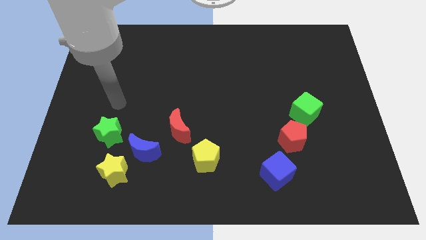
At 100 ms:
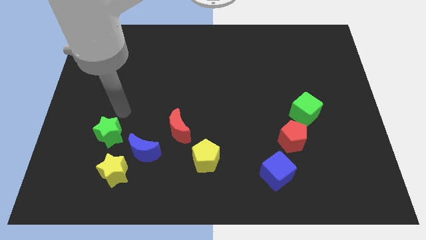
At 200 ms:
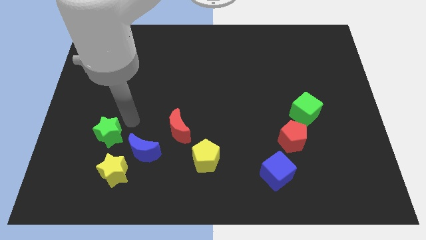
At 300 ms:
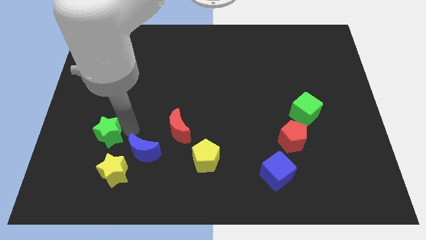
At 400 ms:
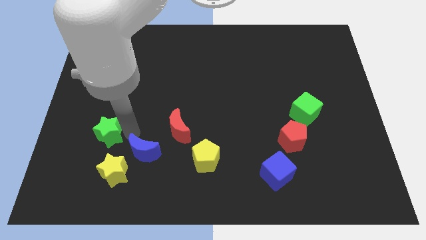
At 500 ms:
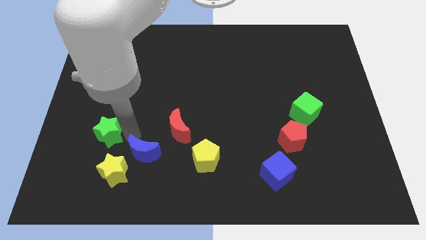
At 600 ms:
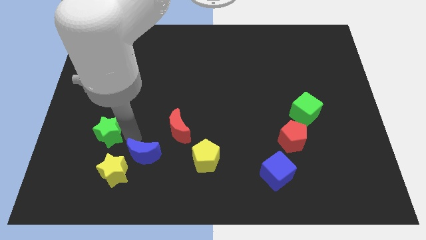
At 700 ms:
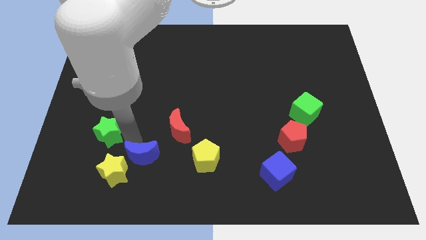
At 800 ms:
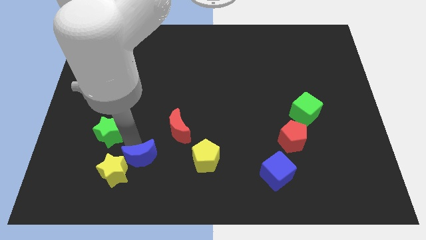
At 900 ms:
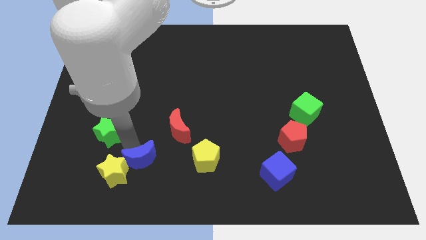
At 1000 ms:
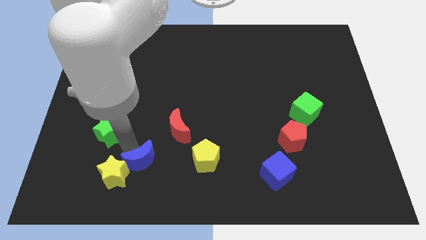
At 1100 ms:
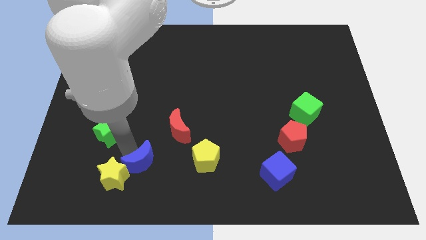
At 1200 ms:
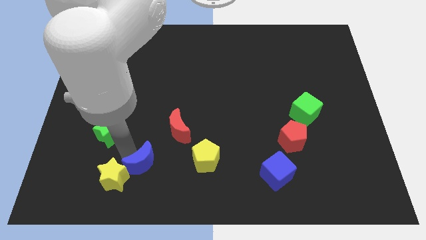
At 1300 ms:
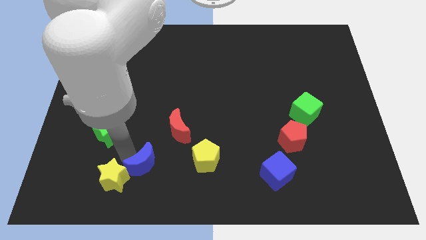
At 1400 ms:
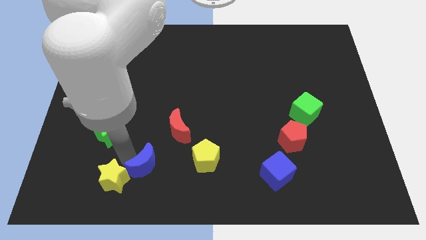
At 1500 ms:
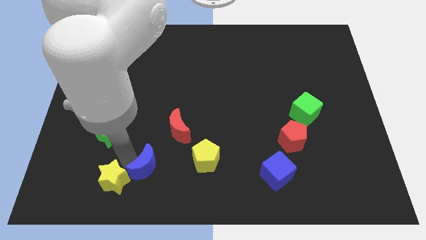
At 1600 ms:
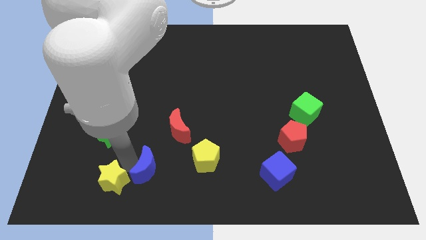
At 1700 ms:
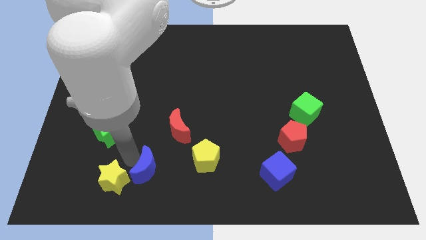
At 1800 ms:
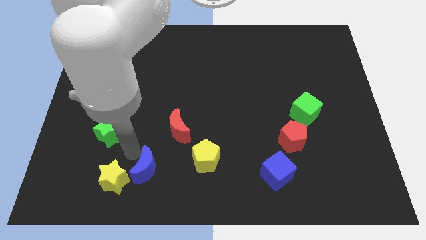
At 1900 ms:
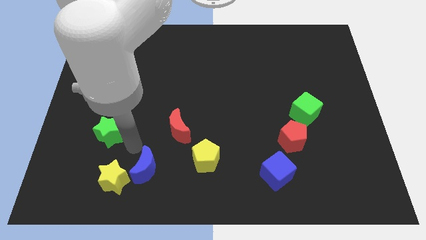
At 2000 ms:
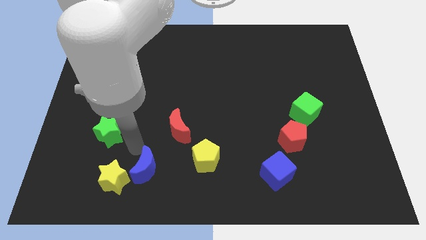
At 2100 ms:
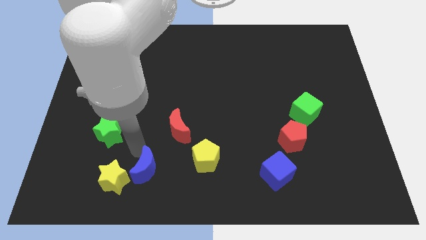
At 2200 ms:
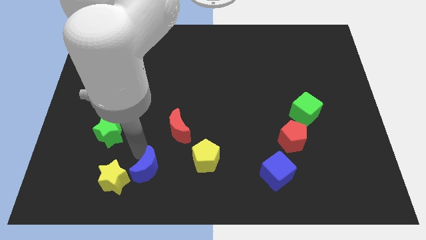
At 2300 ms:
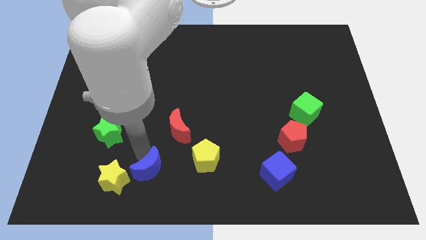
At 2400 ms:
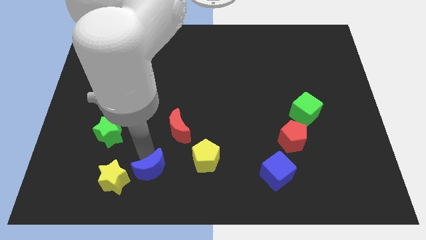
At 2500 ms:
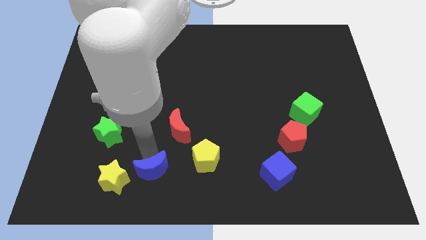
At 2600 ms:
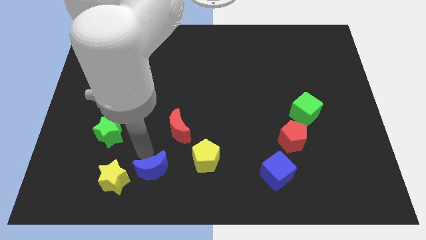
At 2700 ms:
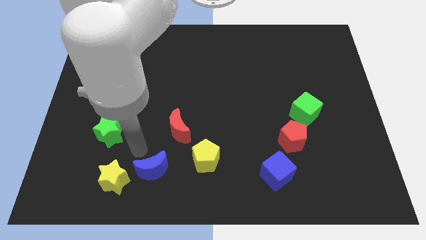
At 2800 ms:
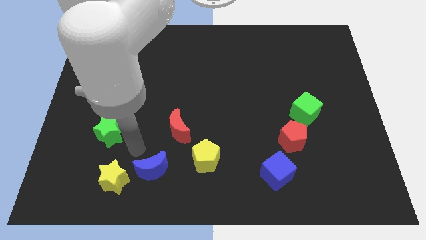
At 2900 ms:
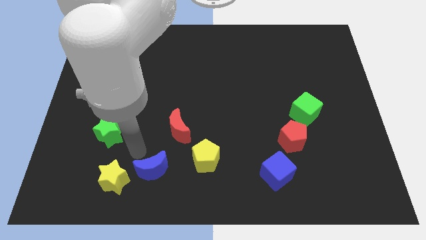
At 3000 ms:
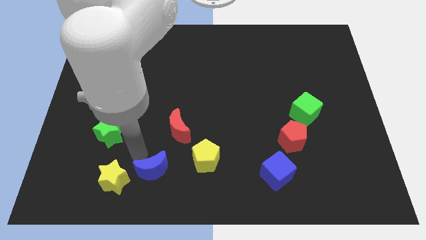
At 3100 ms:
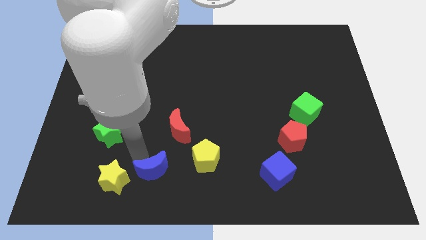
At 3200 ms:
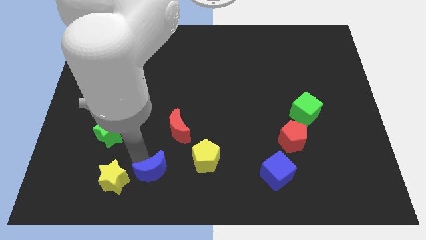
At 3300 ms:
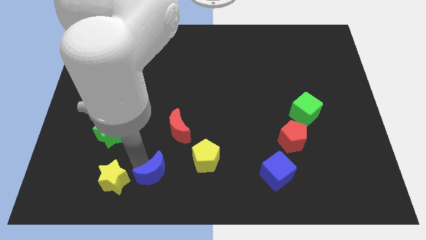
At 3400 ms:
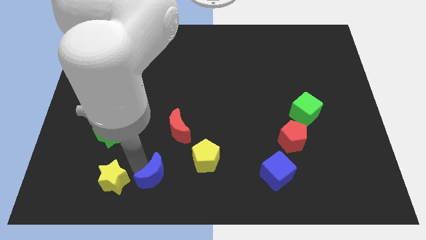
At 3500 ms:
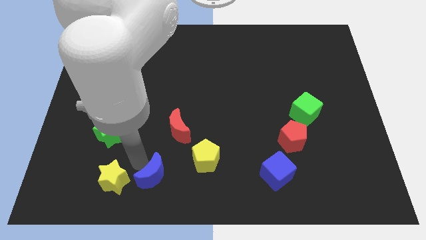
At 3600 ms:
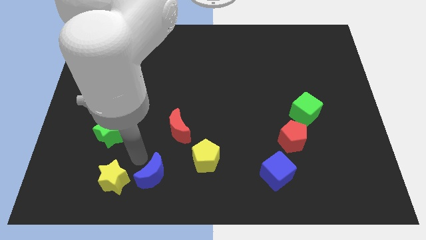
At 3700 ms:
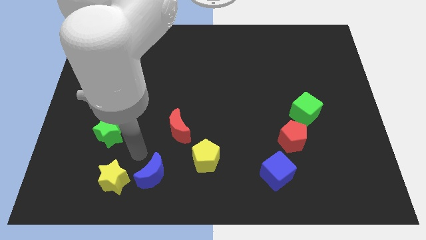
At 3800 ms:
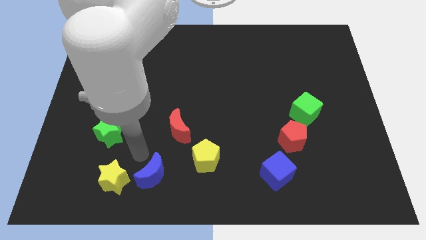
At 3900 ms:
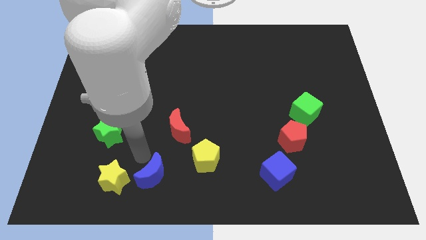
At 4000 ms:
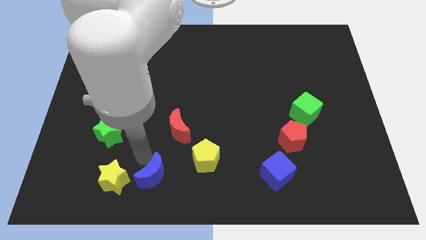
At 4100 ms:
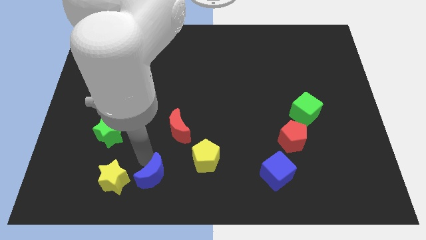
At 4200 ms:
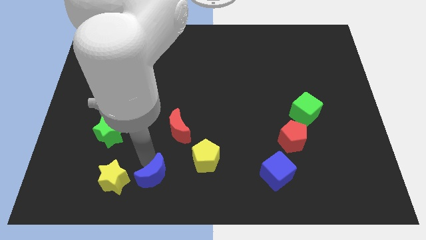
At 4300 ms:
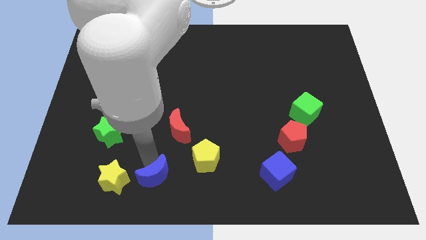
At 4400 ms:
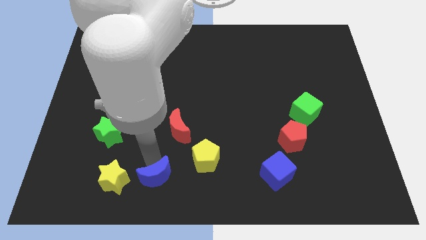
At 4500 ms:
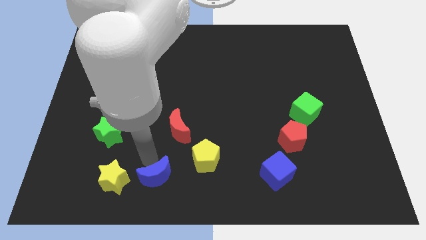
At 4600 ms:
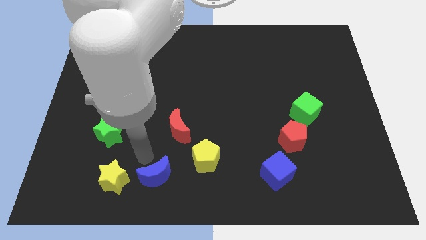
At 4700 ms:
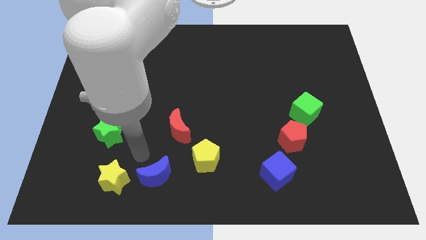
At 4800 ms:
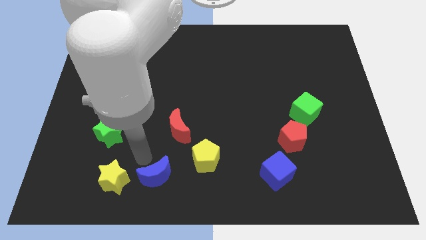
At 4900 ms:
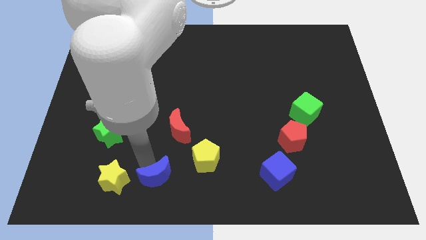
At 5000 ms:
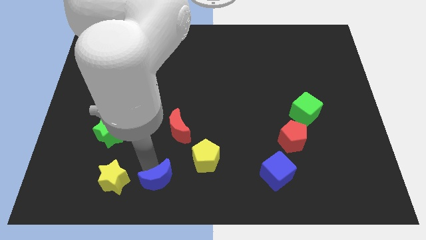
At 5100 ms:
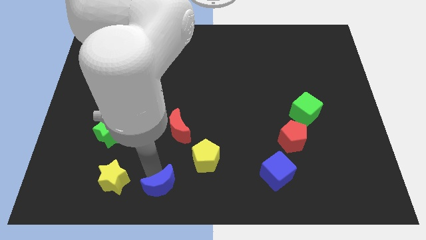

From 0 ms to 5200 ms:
move the blue moon away from the yellow star, green star, and red moon

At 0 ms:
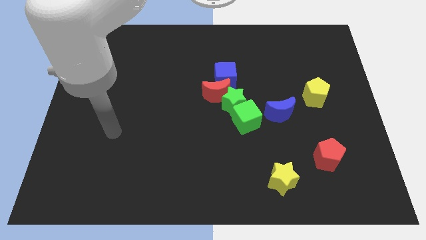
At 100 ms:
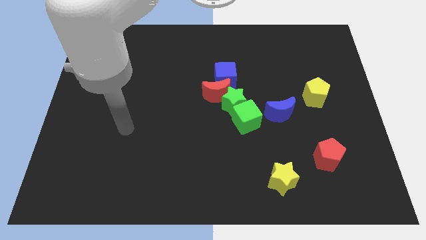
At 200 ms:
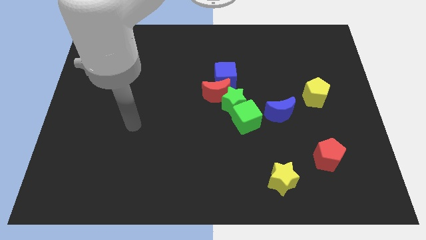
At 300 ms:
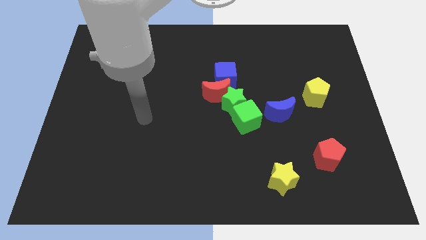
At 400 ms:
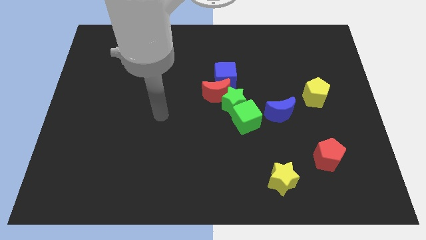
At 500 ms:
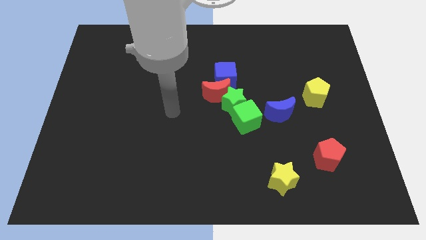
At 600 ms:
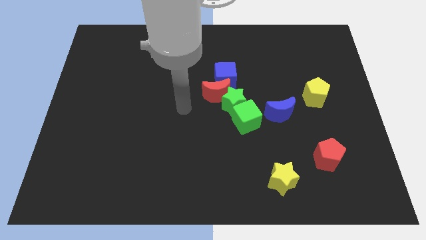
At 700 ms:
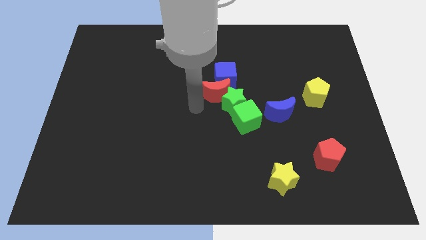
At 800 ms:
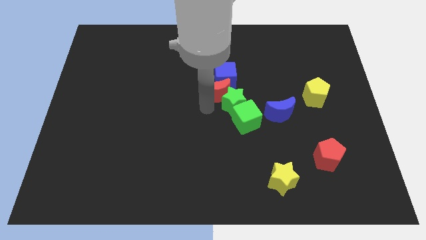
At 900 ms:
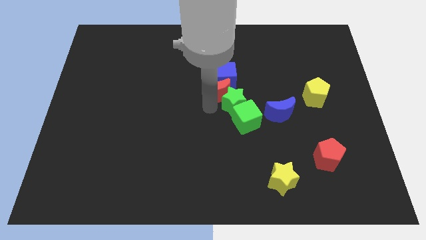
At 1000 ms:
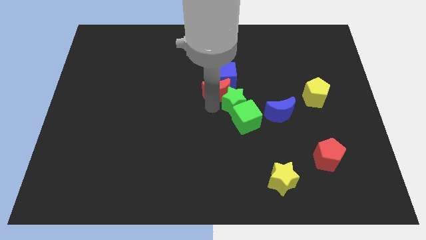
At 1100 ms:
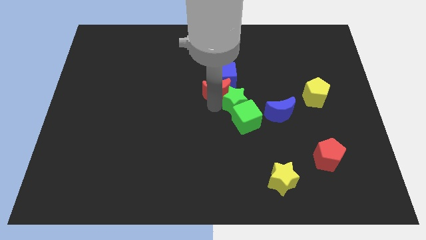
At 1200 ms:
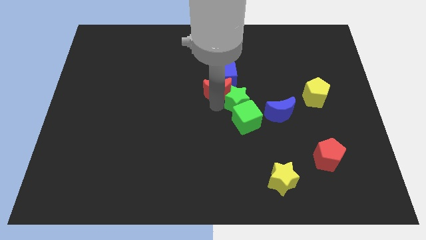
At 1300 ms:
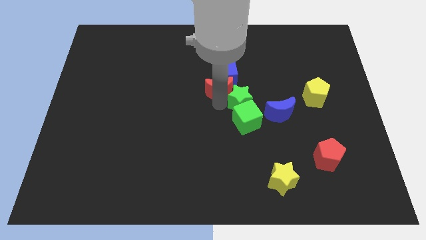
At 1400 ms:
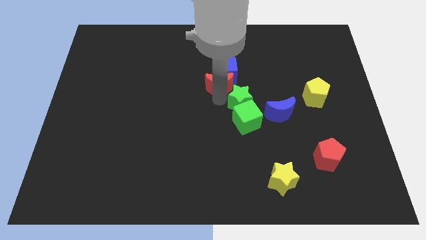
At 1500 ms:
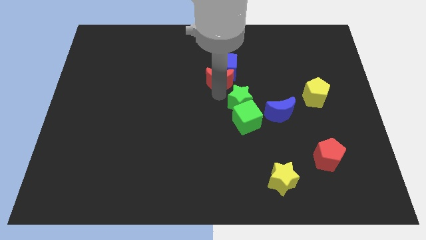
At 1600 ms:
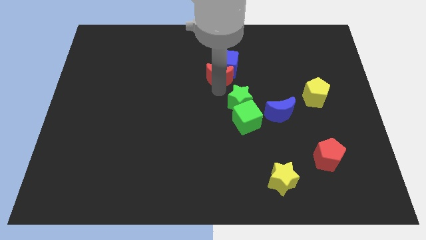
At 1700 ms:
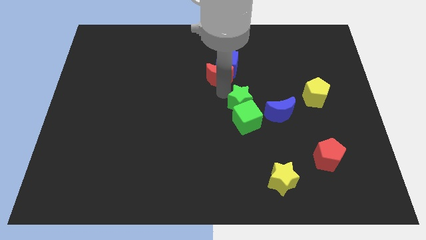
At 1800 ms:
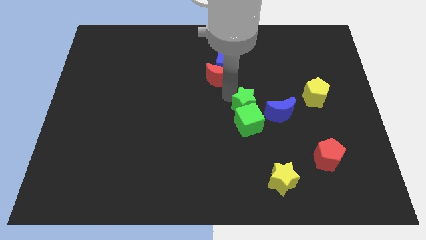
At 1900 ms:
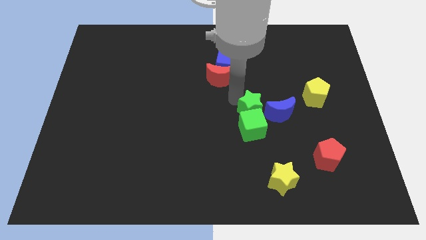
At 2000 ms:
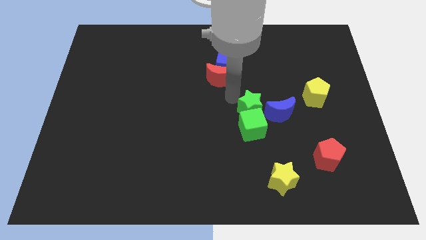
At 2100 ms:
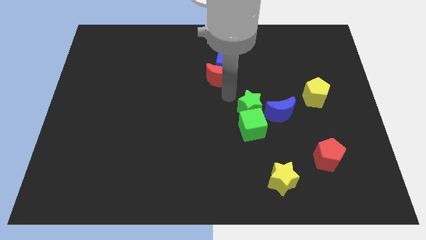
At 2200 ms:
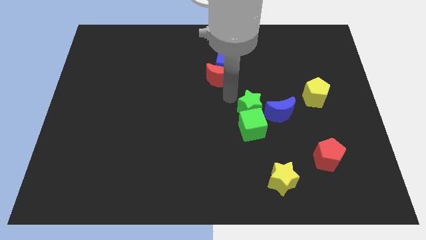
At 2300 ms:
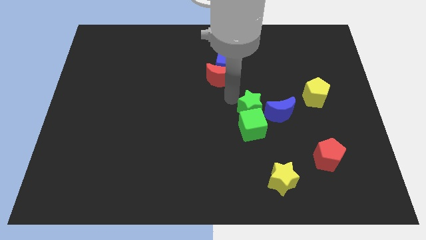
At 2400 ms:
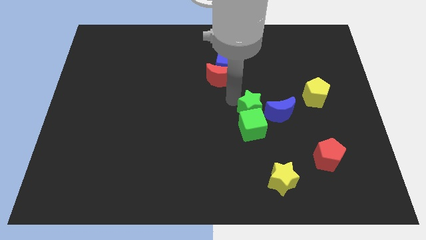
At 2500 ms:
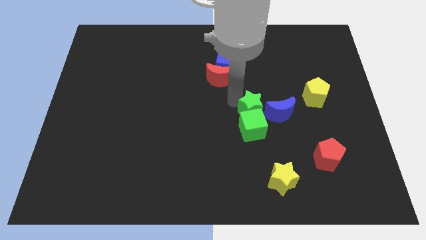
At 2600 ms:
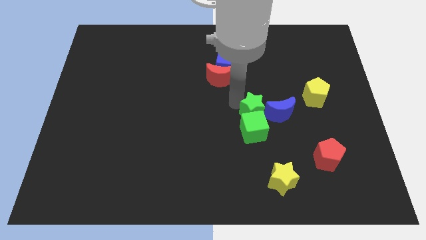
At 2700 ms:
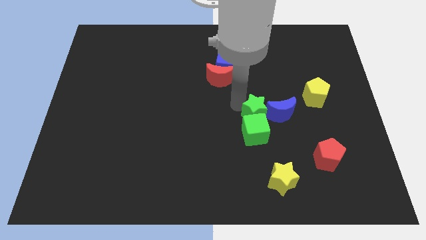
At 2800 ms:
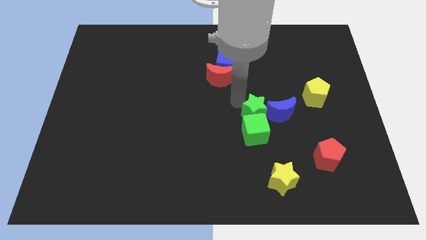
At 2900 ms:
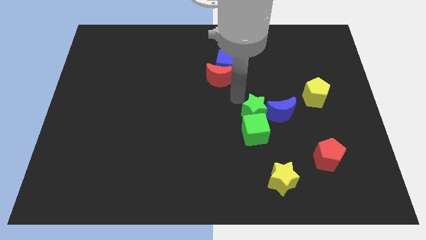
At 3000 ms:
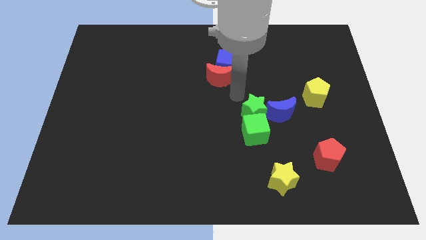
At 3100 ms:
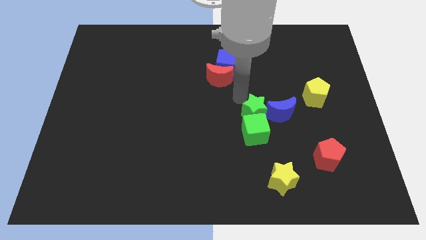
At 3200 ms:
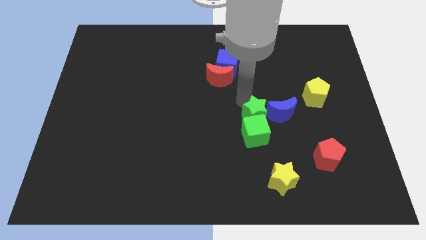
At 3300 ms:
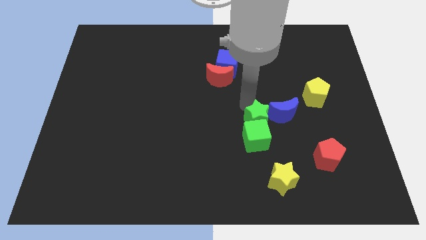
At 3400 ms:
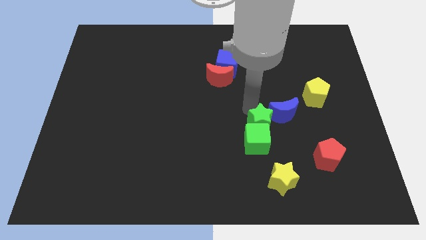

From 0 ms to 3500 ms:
separate the green star from the red moon, green cube, and blue cube

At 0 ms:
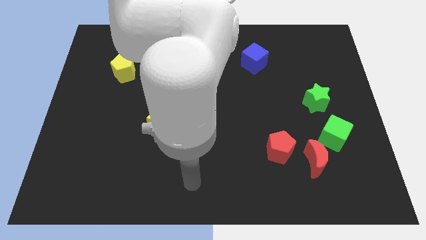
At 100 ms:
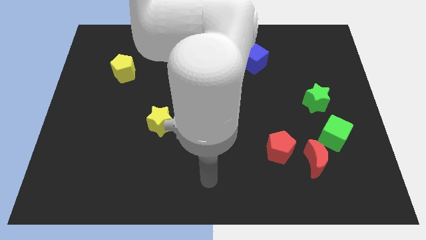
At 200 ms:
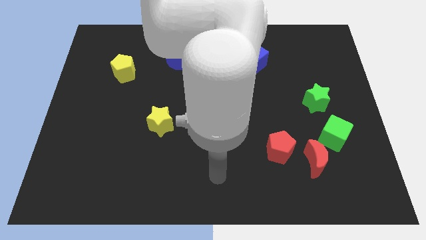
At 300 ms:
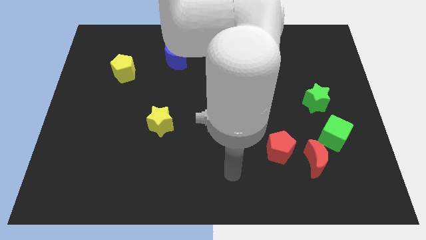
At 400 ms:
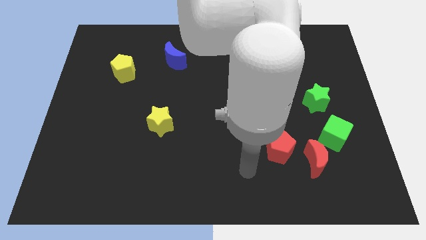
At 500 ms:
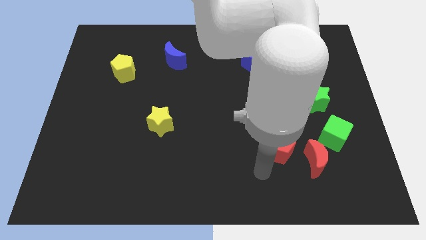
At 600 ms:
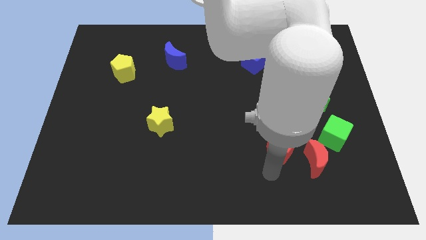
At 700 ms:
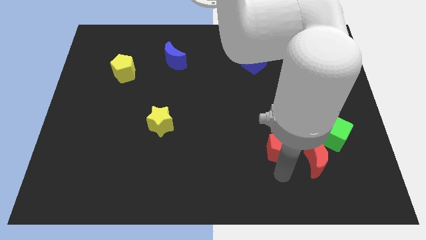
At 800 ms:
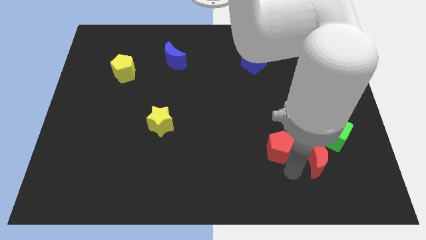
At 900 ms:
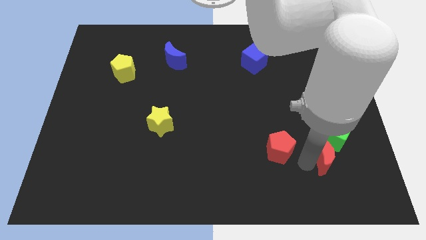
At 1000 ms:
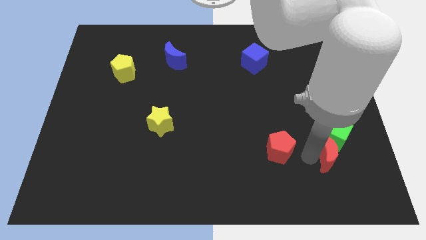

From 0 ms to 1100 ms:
separate the red pentagon from the red moon
